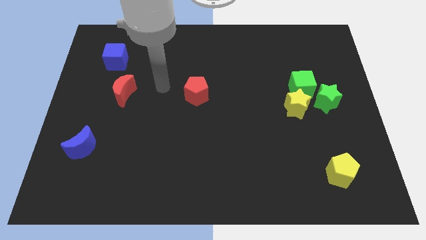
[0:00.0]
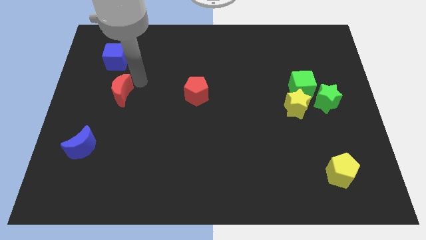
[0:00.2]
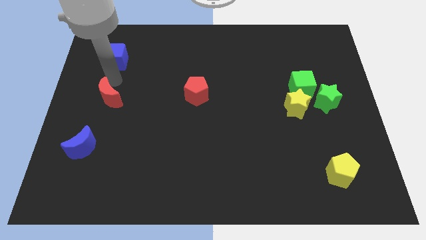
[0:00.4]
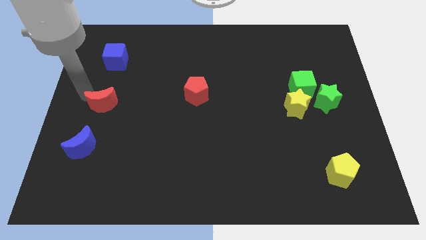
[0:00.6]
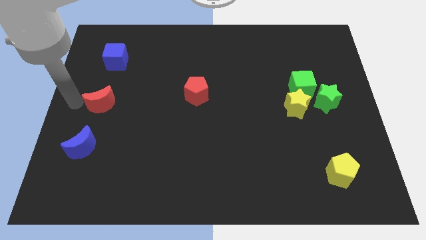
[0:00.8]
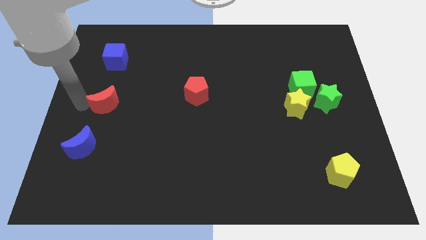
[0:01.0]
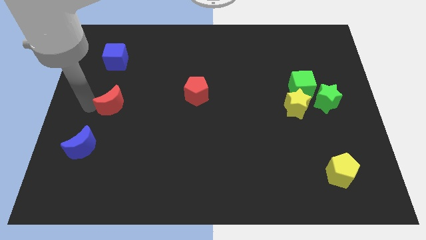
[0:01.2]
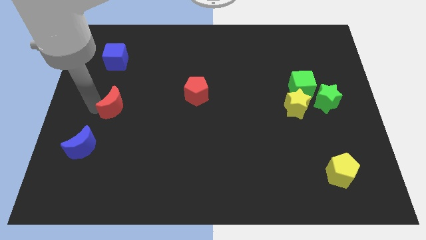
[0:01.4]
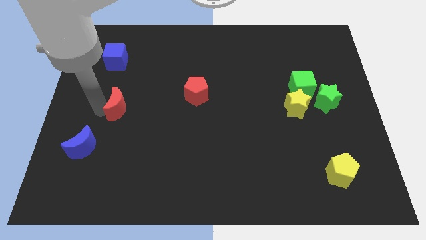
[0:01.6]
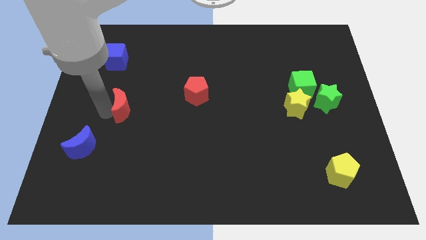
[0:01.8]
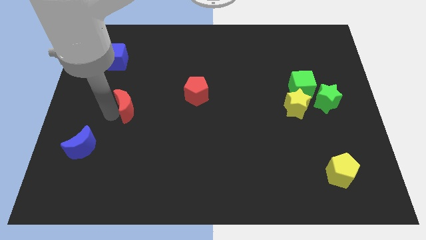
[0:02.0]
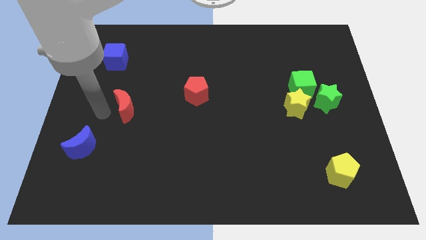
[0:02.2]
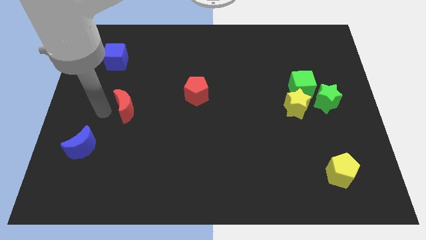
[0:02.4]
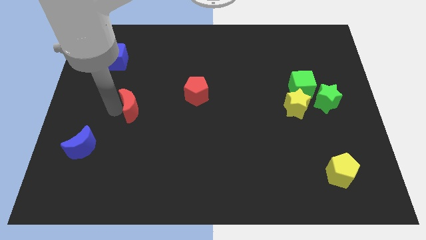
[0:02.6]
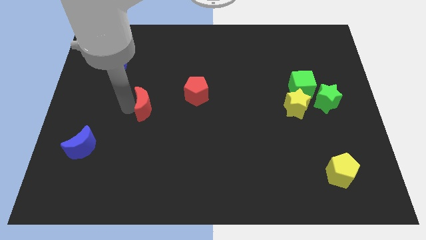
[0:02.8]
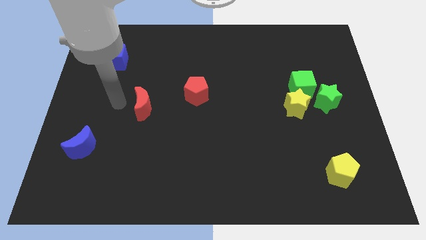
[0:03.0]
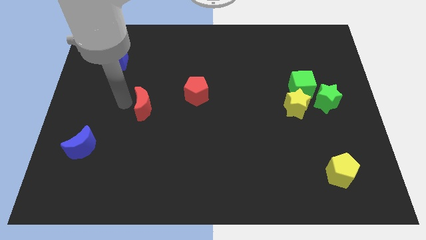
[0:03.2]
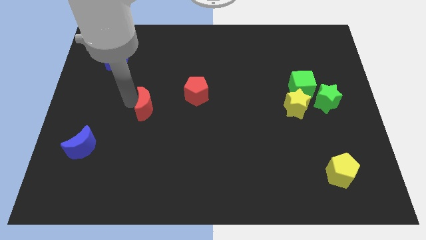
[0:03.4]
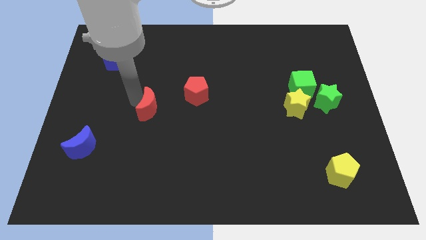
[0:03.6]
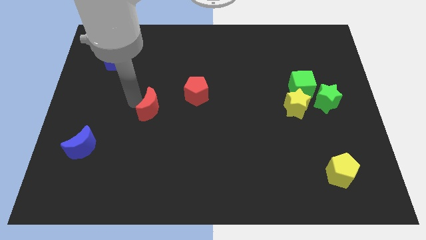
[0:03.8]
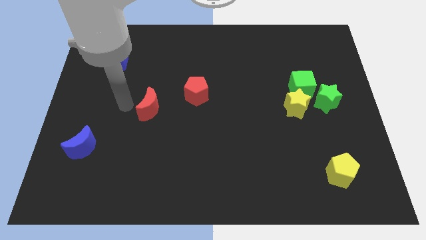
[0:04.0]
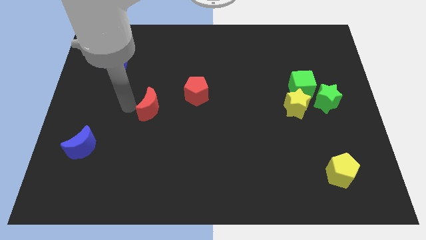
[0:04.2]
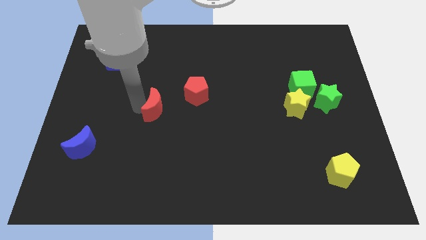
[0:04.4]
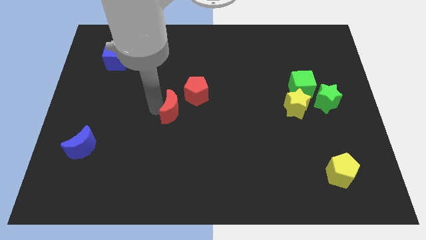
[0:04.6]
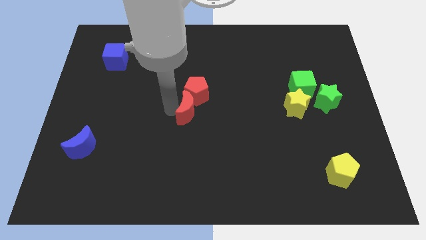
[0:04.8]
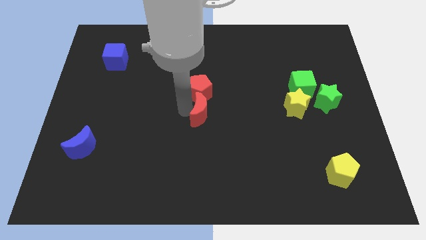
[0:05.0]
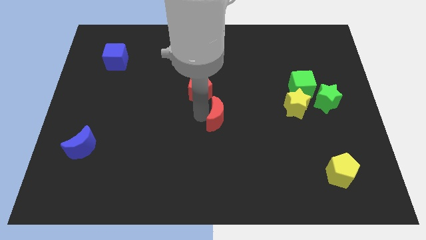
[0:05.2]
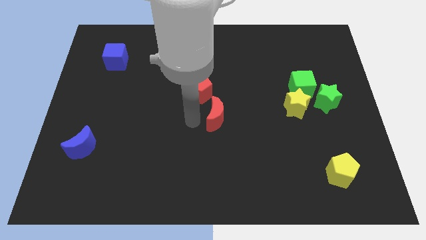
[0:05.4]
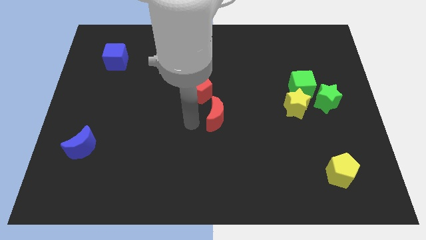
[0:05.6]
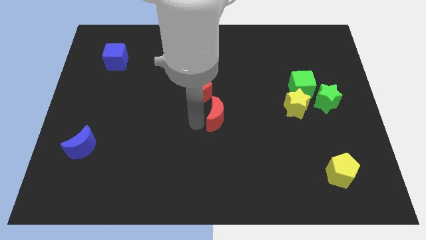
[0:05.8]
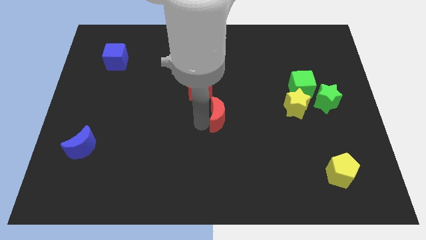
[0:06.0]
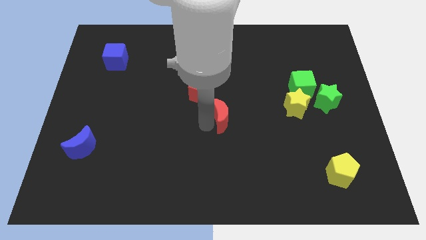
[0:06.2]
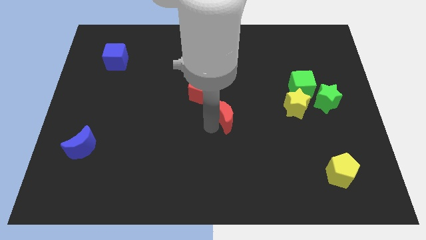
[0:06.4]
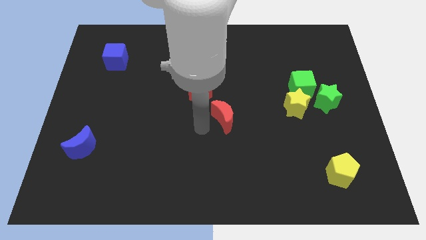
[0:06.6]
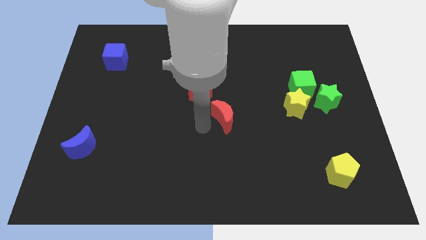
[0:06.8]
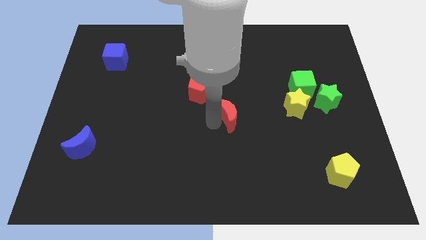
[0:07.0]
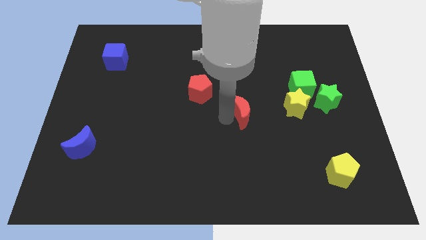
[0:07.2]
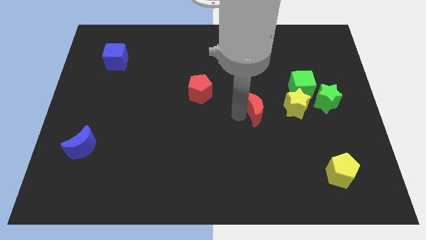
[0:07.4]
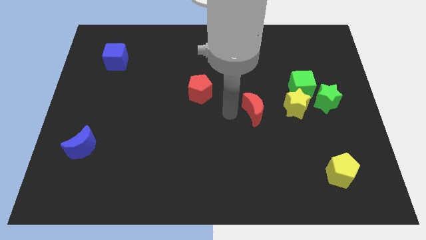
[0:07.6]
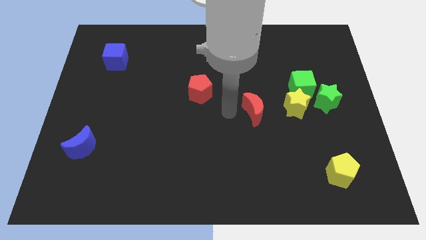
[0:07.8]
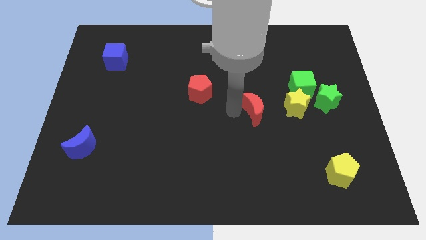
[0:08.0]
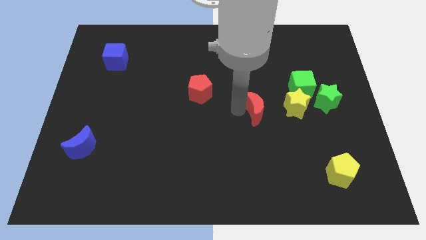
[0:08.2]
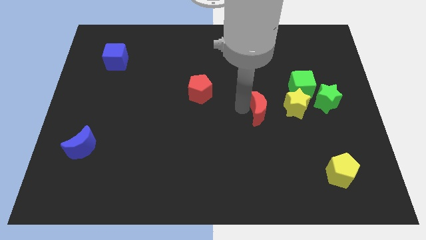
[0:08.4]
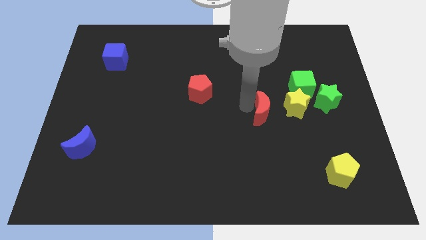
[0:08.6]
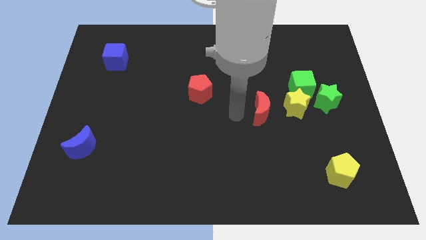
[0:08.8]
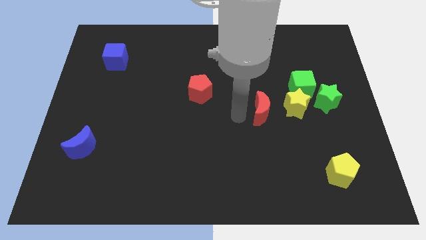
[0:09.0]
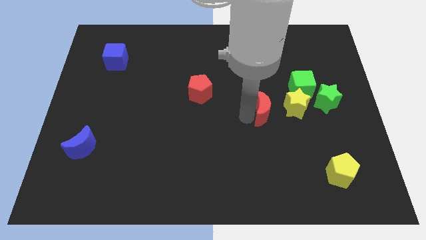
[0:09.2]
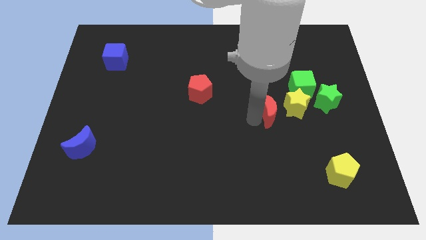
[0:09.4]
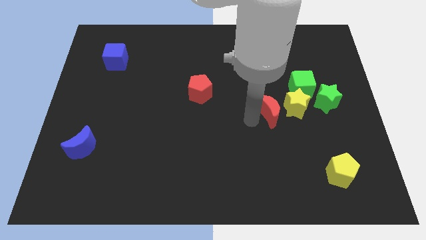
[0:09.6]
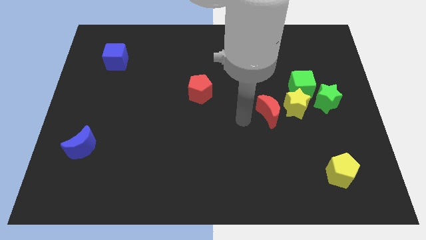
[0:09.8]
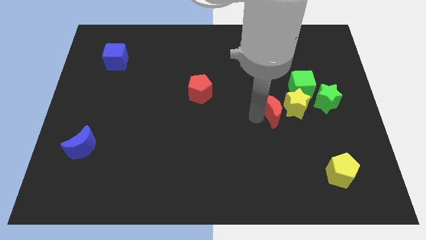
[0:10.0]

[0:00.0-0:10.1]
push the red moon close to the yellow star

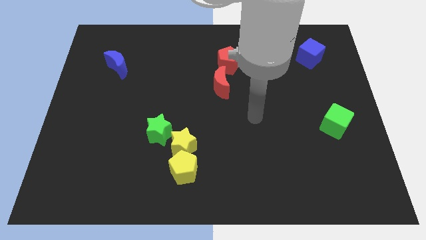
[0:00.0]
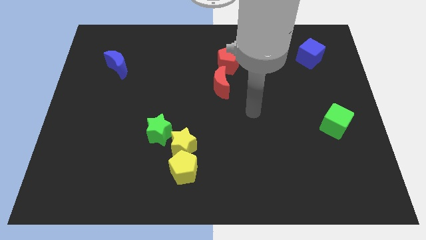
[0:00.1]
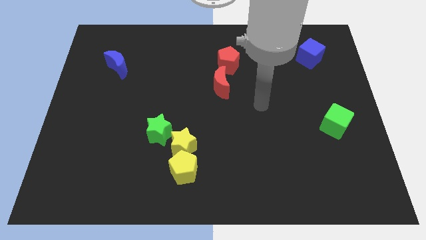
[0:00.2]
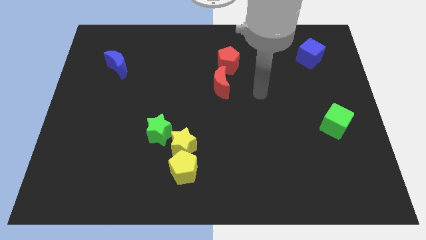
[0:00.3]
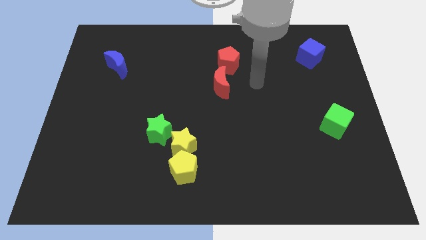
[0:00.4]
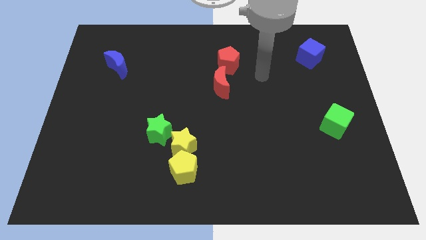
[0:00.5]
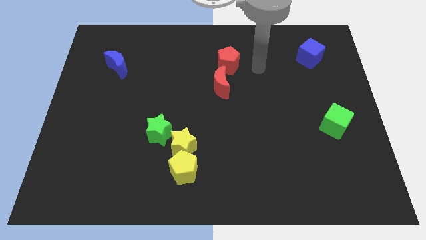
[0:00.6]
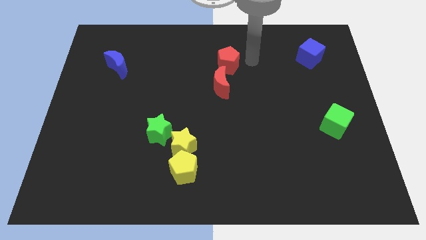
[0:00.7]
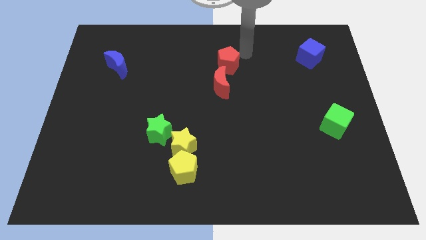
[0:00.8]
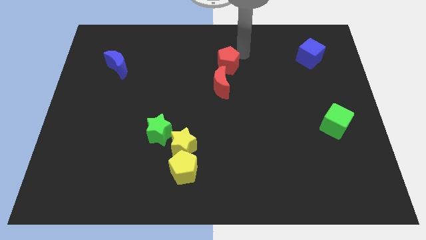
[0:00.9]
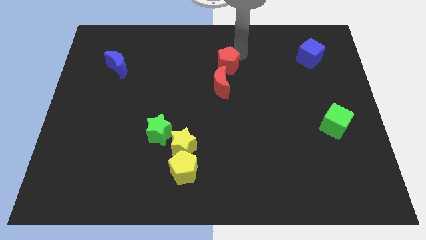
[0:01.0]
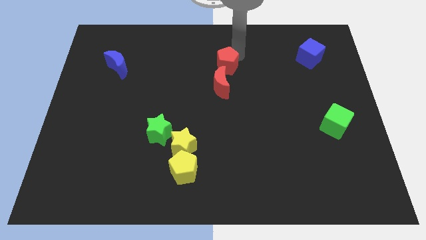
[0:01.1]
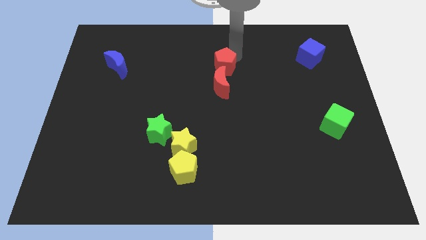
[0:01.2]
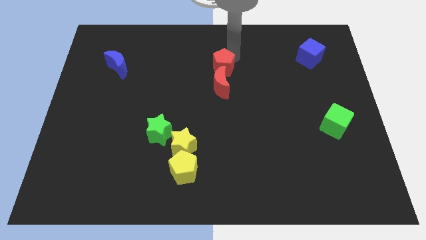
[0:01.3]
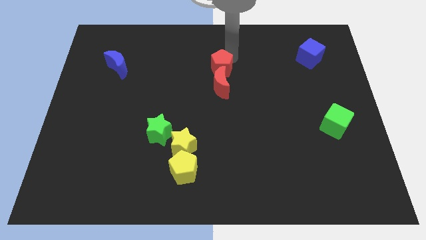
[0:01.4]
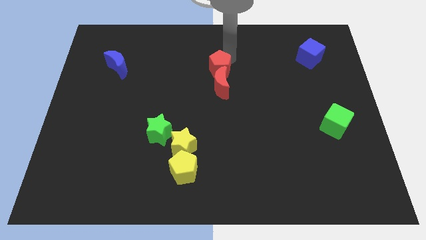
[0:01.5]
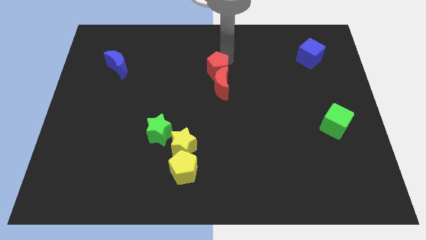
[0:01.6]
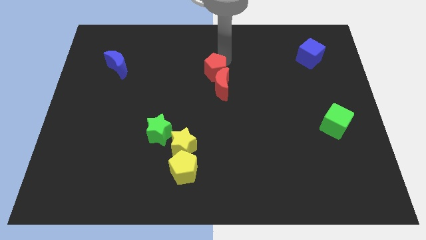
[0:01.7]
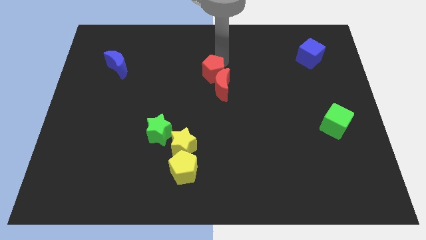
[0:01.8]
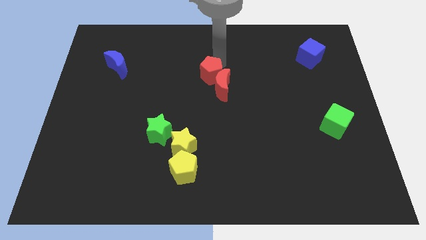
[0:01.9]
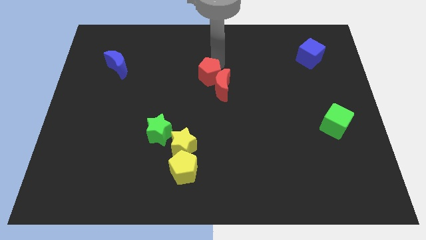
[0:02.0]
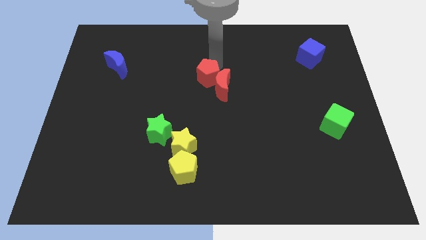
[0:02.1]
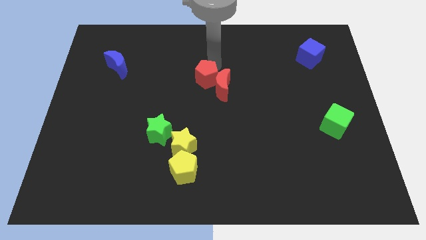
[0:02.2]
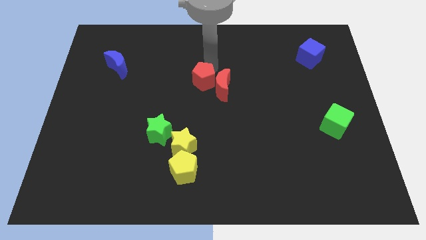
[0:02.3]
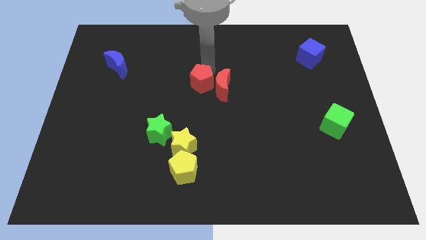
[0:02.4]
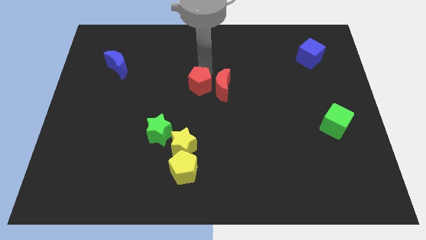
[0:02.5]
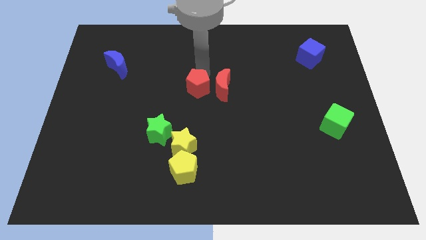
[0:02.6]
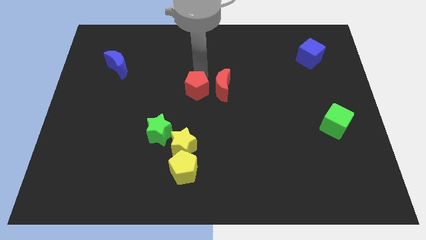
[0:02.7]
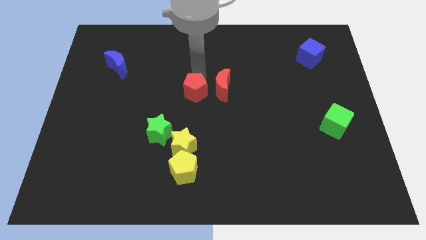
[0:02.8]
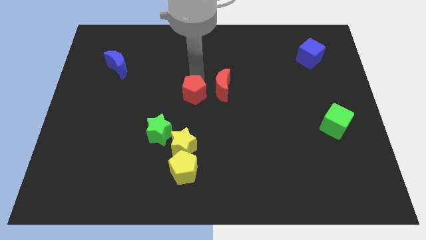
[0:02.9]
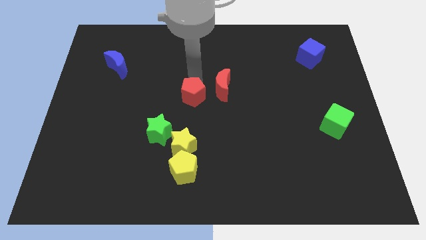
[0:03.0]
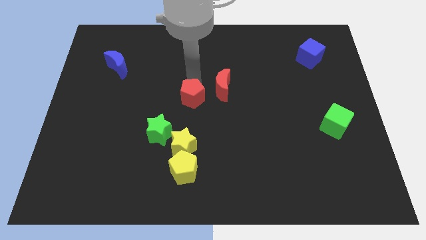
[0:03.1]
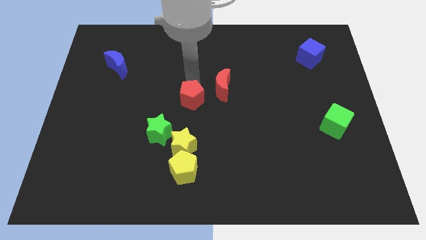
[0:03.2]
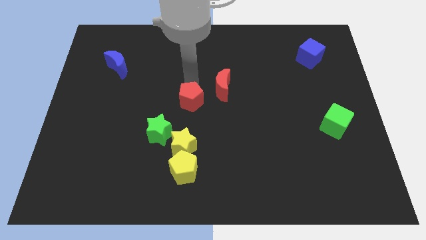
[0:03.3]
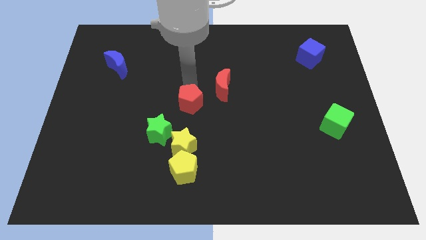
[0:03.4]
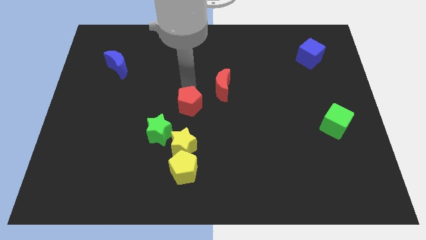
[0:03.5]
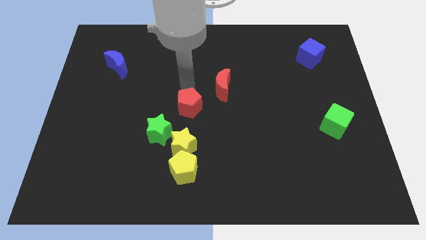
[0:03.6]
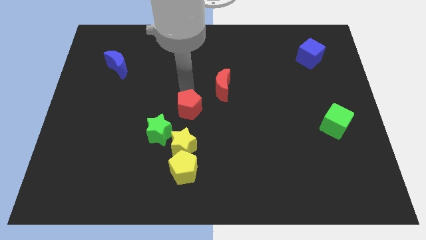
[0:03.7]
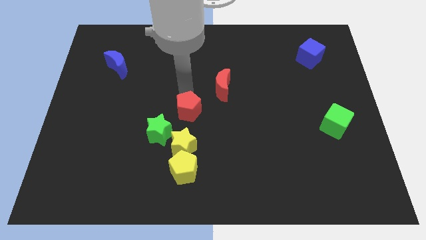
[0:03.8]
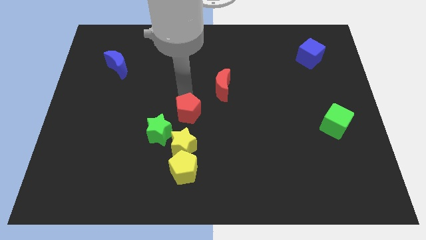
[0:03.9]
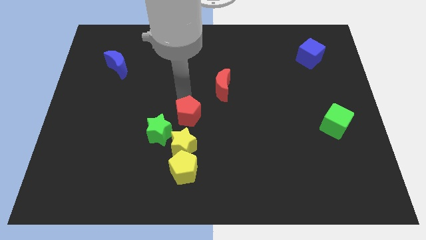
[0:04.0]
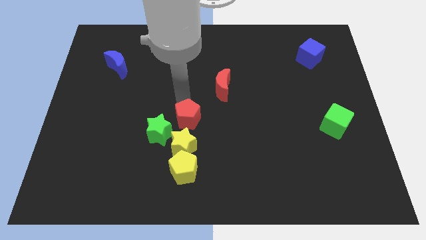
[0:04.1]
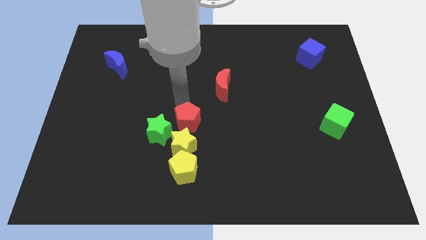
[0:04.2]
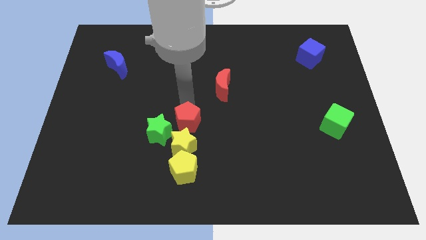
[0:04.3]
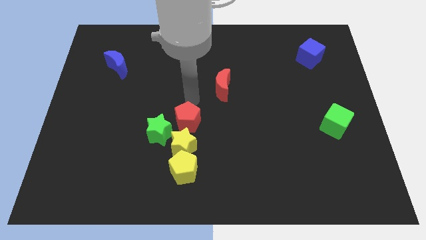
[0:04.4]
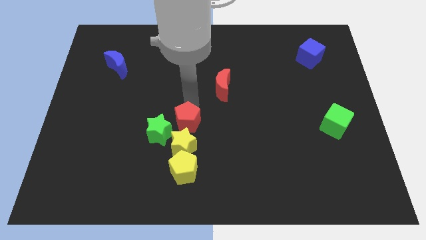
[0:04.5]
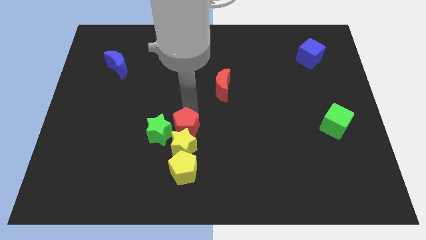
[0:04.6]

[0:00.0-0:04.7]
slide the red pentagon close to the yellow star
